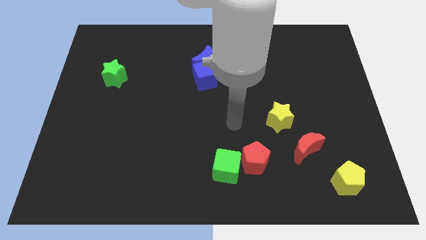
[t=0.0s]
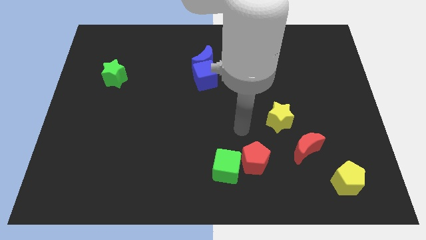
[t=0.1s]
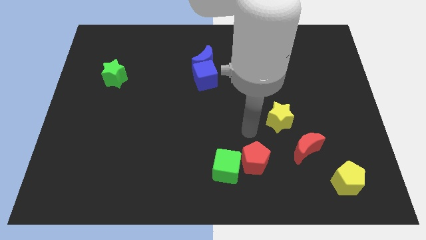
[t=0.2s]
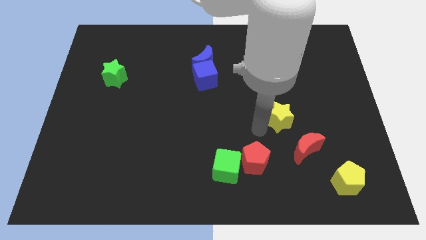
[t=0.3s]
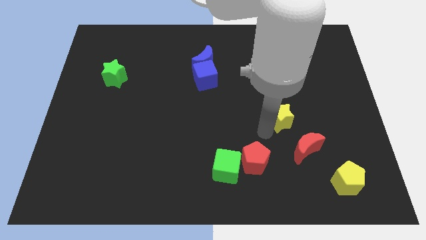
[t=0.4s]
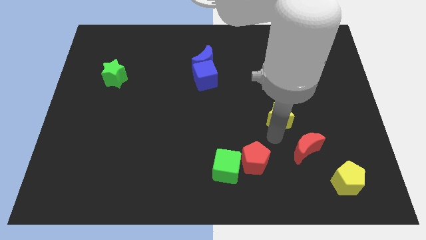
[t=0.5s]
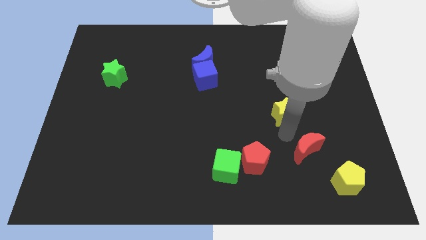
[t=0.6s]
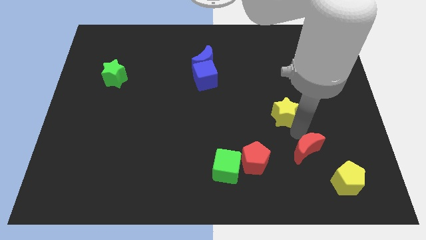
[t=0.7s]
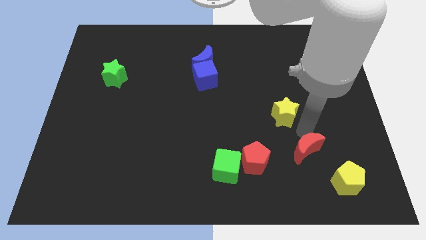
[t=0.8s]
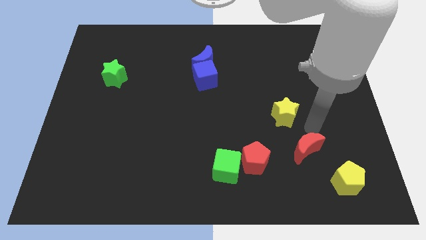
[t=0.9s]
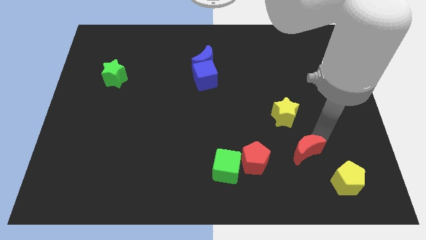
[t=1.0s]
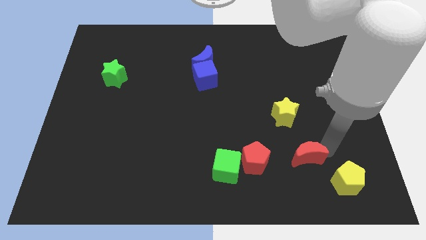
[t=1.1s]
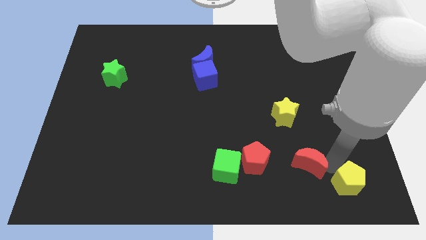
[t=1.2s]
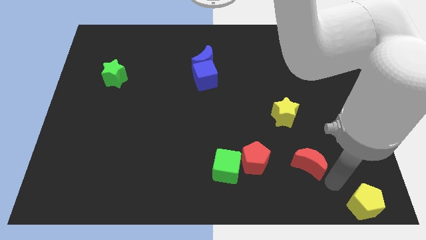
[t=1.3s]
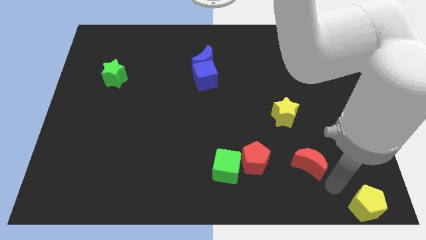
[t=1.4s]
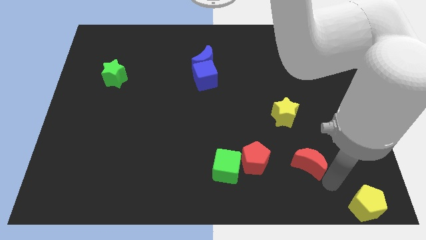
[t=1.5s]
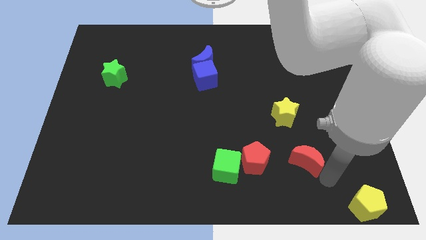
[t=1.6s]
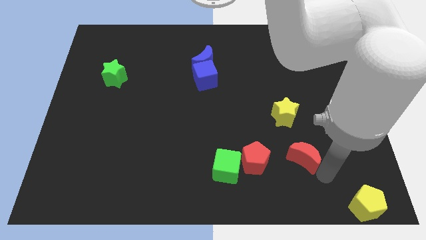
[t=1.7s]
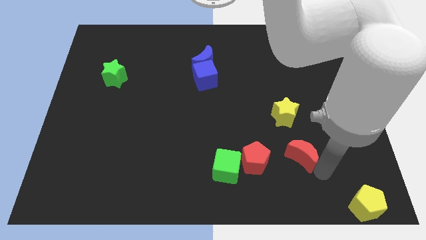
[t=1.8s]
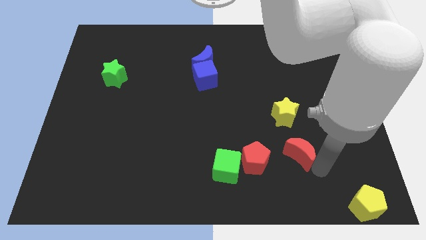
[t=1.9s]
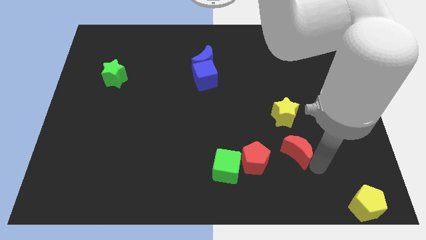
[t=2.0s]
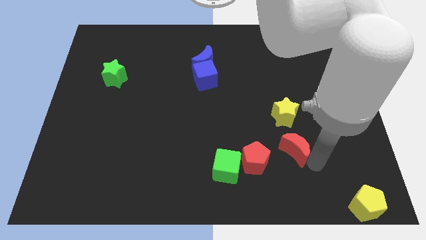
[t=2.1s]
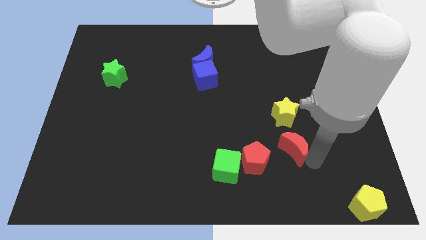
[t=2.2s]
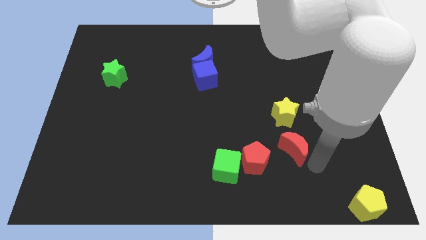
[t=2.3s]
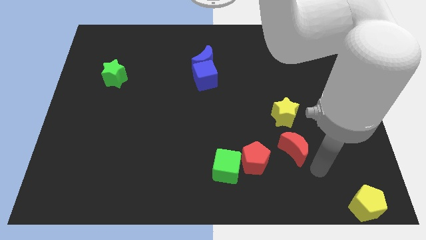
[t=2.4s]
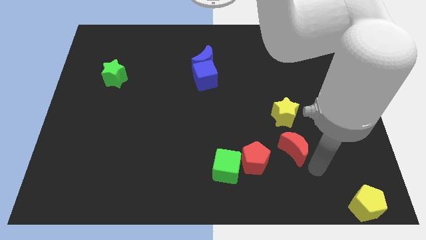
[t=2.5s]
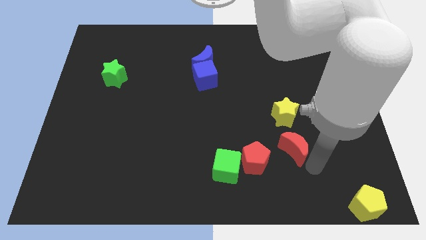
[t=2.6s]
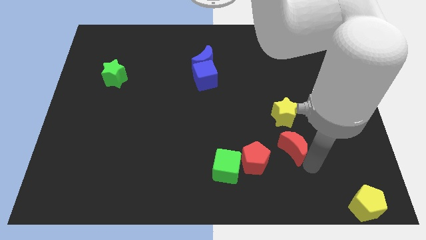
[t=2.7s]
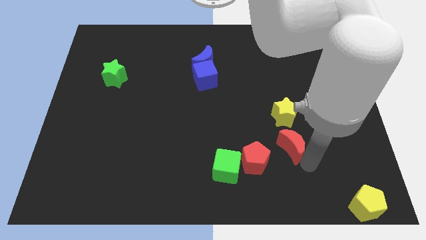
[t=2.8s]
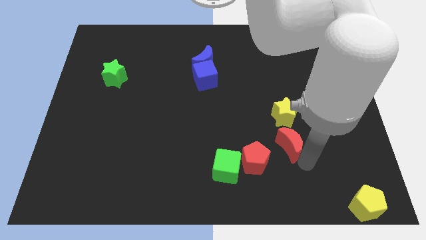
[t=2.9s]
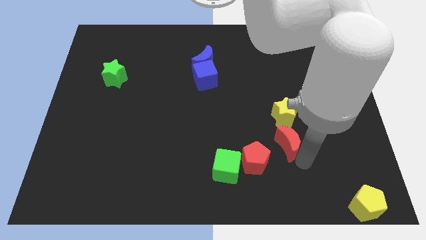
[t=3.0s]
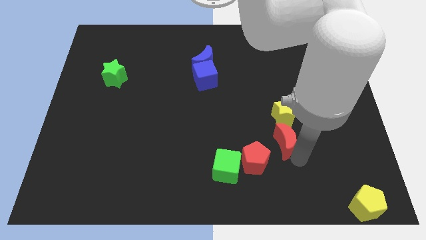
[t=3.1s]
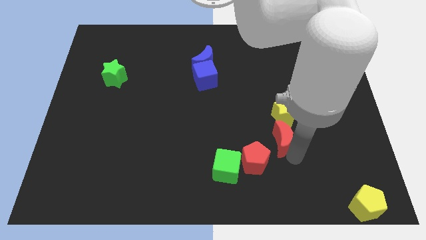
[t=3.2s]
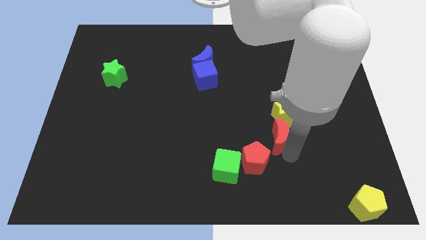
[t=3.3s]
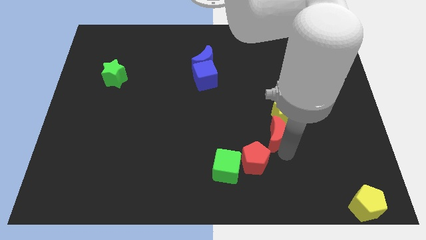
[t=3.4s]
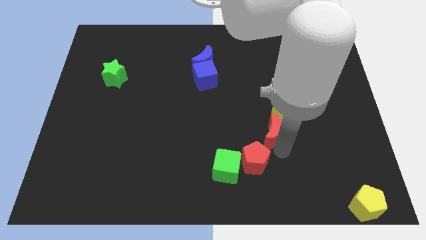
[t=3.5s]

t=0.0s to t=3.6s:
slightly slide the red moon upwards and left diagonally

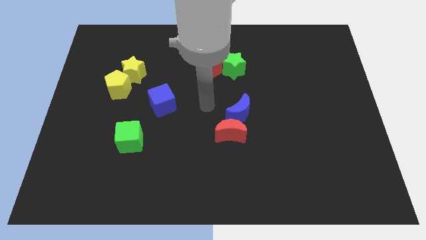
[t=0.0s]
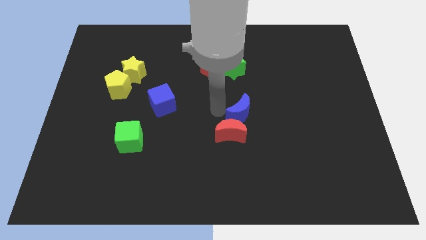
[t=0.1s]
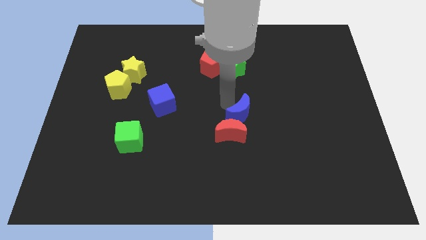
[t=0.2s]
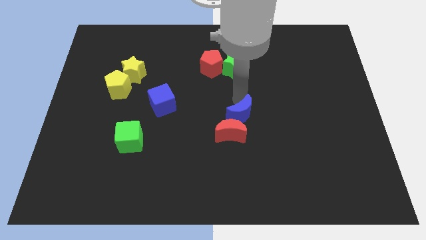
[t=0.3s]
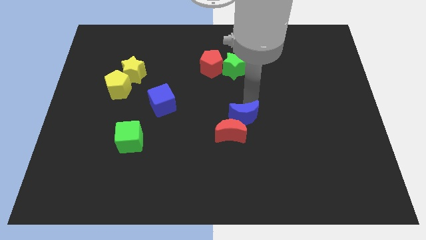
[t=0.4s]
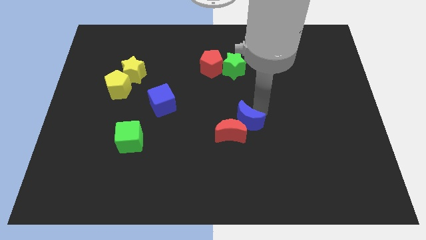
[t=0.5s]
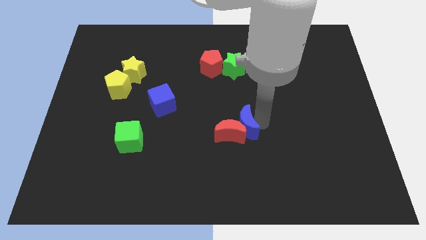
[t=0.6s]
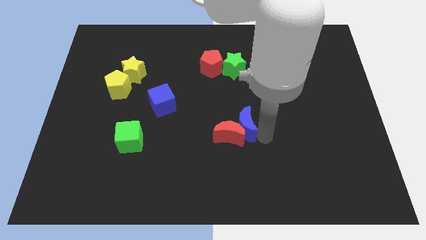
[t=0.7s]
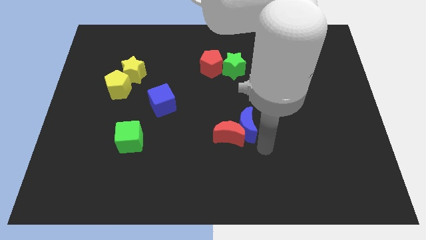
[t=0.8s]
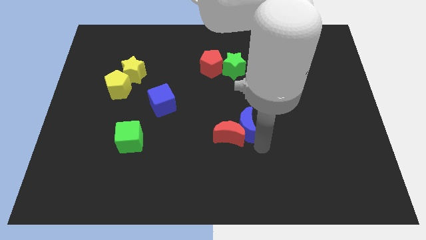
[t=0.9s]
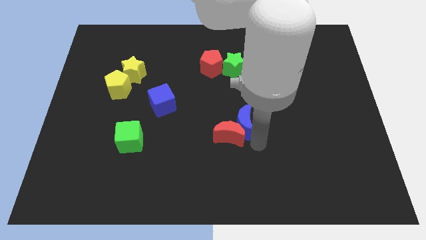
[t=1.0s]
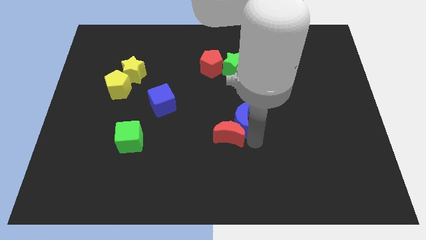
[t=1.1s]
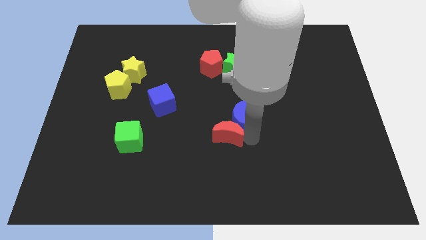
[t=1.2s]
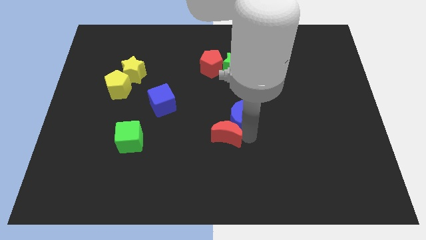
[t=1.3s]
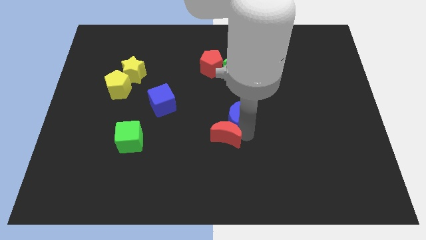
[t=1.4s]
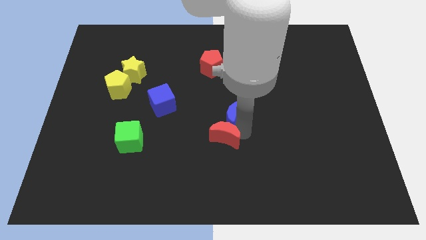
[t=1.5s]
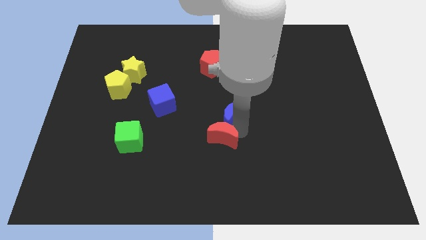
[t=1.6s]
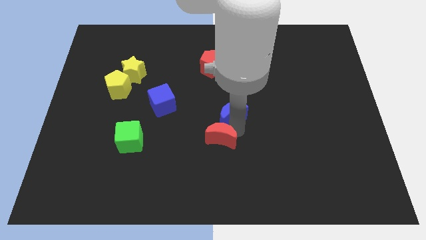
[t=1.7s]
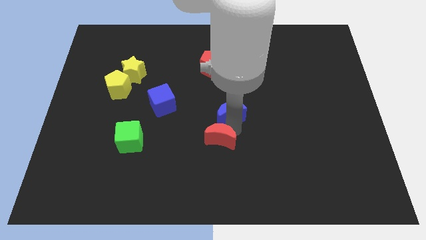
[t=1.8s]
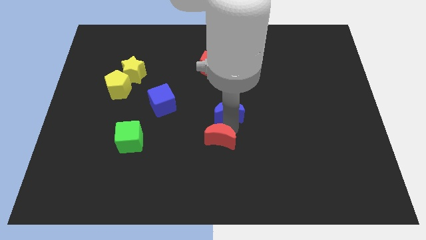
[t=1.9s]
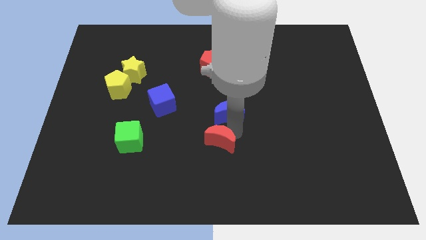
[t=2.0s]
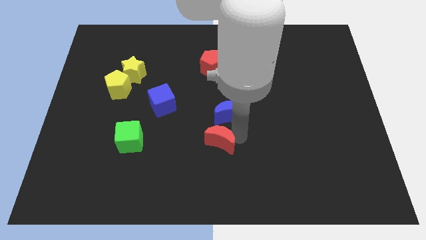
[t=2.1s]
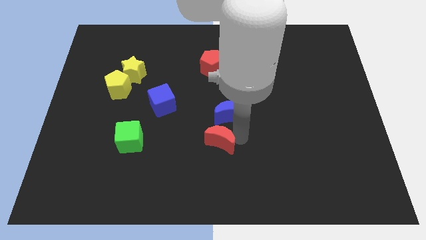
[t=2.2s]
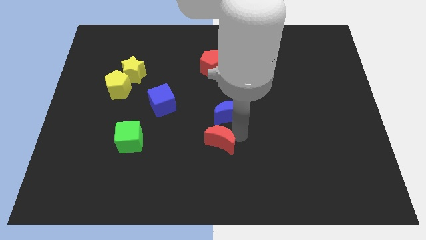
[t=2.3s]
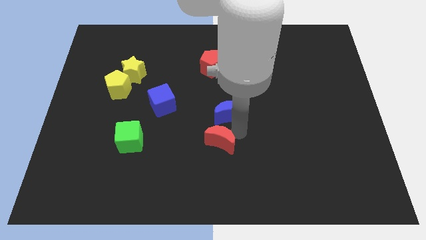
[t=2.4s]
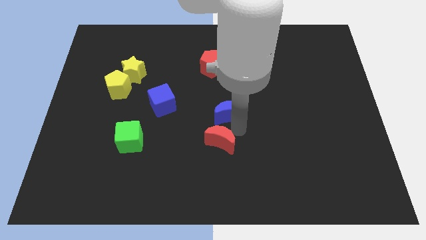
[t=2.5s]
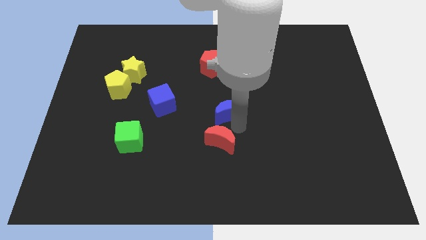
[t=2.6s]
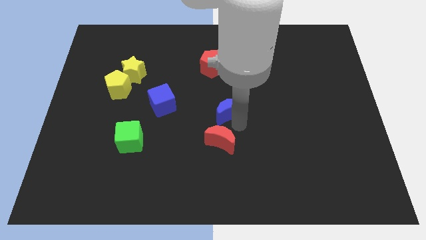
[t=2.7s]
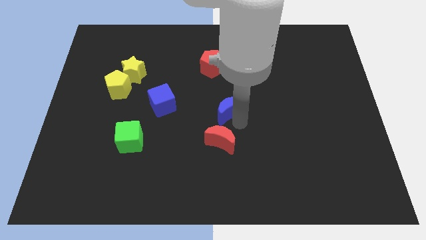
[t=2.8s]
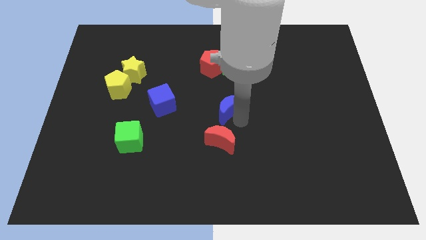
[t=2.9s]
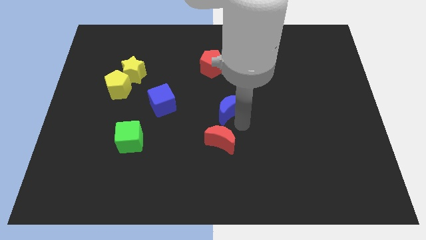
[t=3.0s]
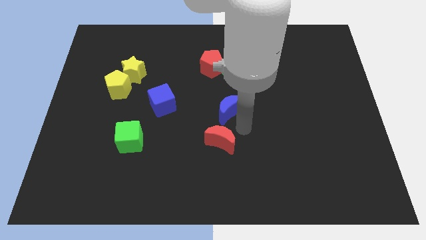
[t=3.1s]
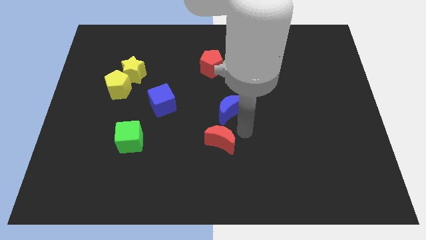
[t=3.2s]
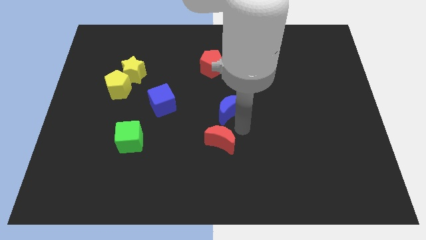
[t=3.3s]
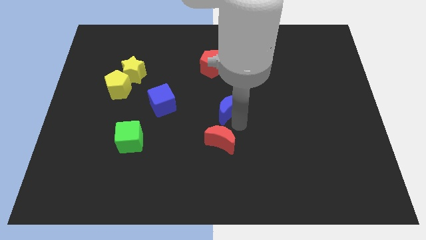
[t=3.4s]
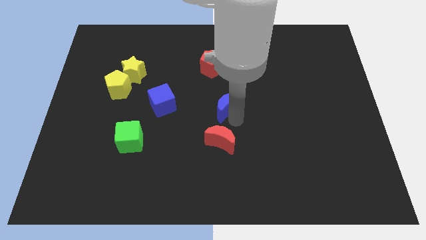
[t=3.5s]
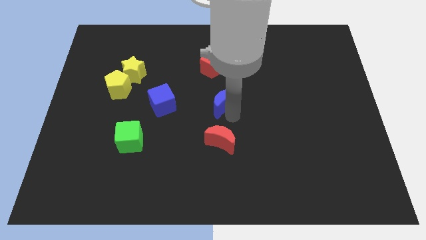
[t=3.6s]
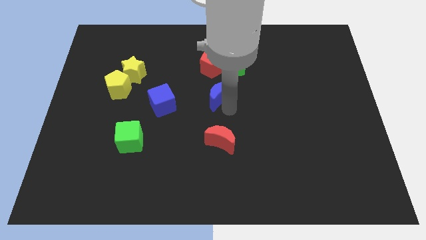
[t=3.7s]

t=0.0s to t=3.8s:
push the blue moon a bit upwards and then to the left

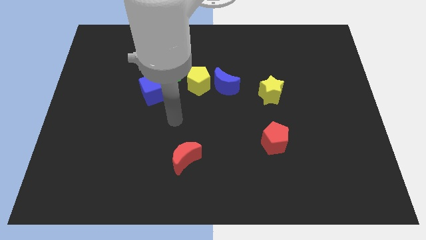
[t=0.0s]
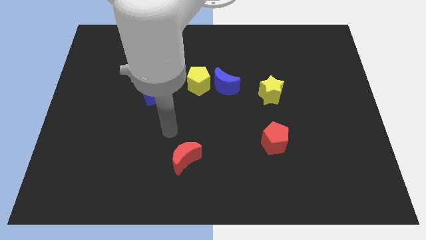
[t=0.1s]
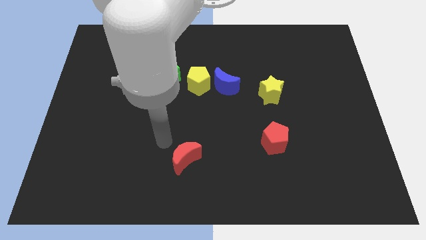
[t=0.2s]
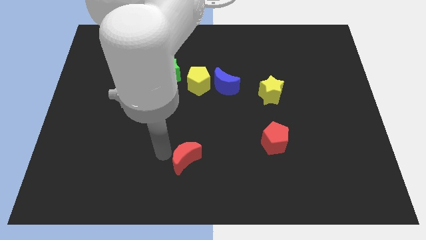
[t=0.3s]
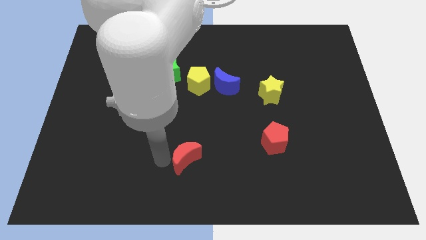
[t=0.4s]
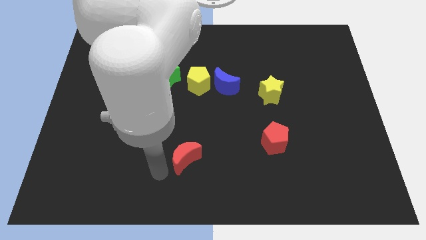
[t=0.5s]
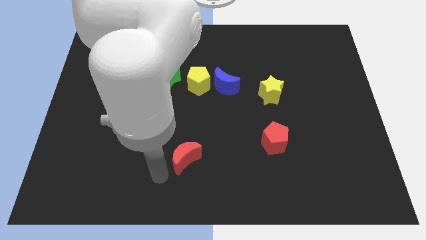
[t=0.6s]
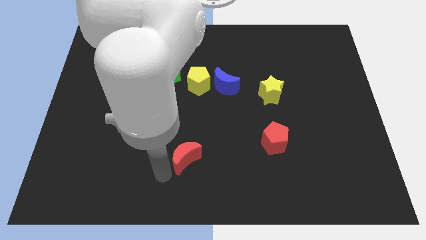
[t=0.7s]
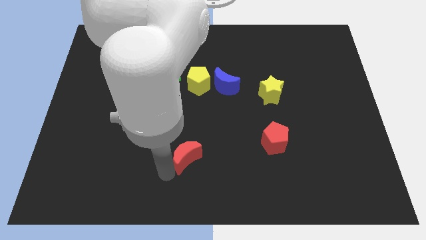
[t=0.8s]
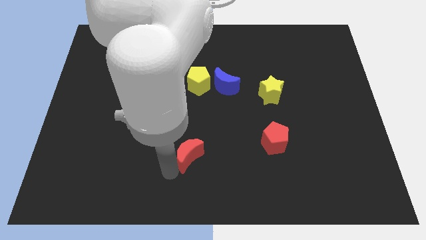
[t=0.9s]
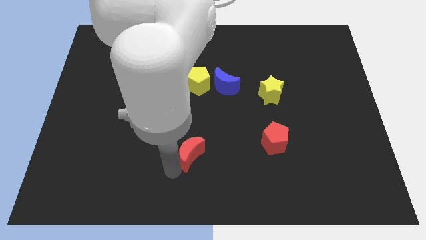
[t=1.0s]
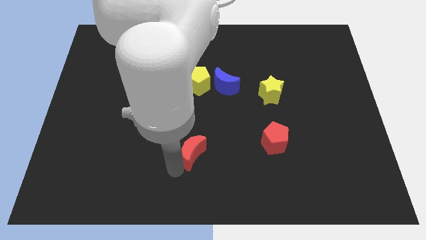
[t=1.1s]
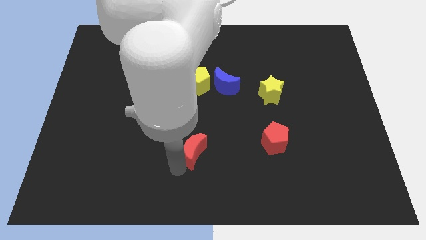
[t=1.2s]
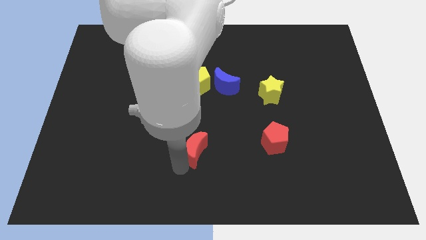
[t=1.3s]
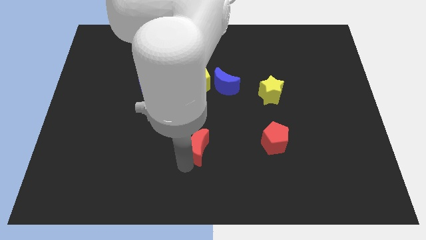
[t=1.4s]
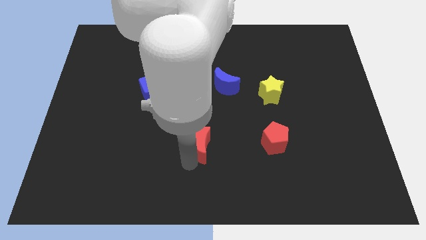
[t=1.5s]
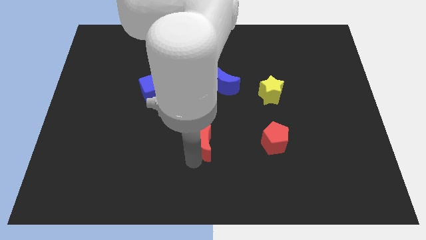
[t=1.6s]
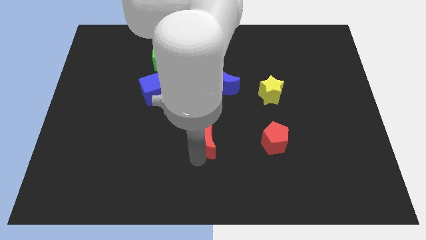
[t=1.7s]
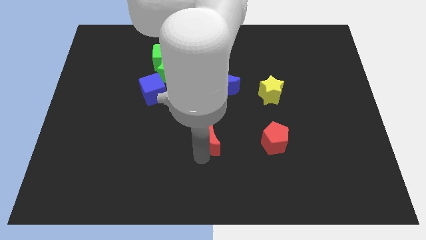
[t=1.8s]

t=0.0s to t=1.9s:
slightly slide the red moon upwards and then to the right
